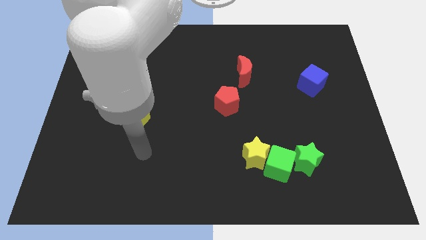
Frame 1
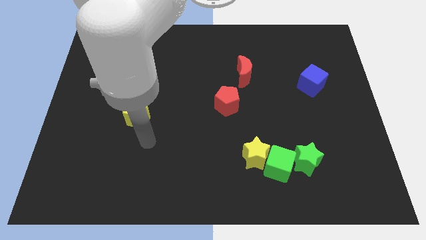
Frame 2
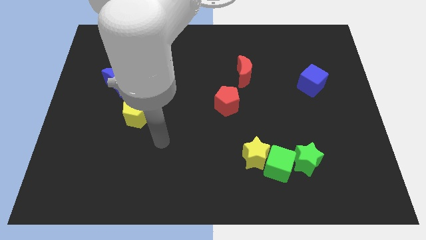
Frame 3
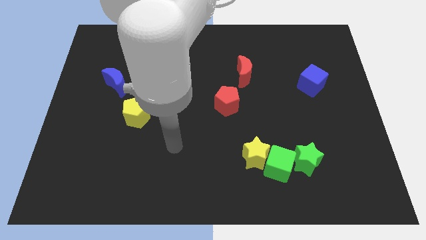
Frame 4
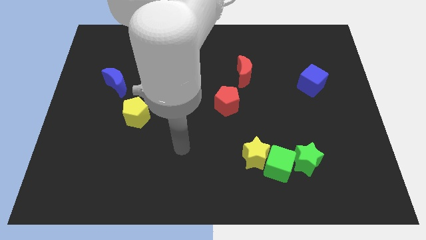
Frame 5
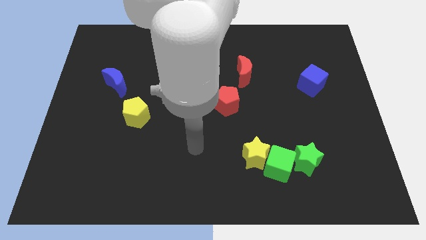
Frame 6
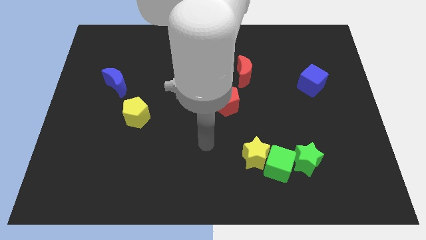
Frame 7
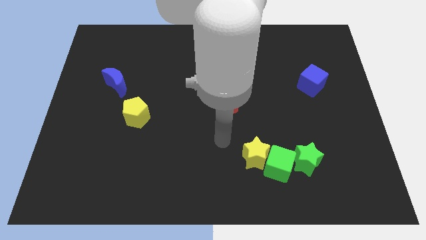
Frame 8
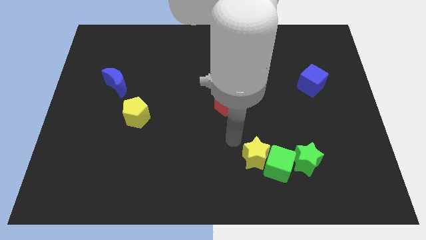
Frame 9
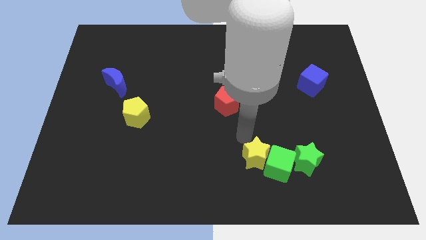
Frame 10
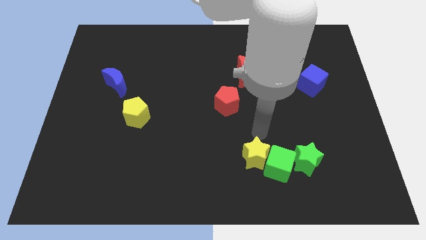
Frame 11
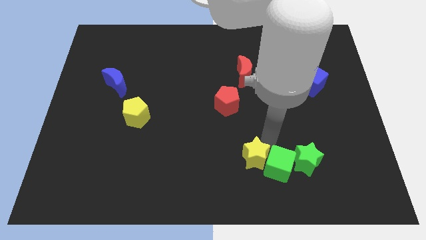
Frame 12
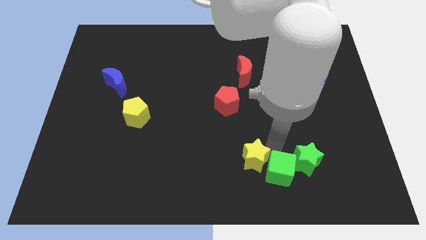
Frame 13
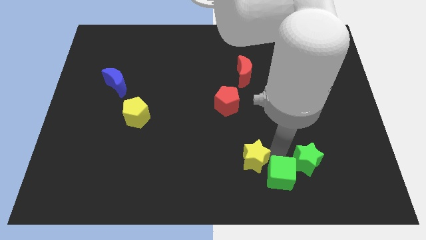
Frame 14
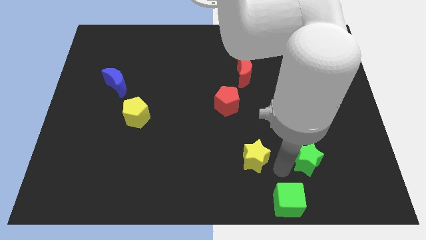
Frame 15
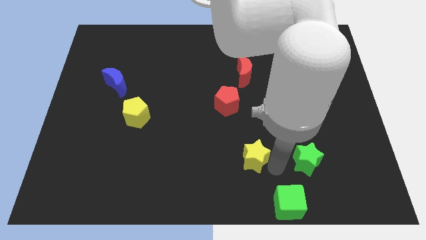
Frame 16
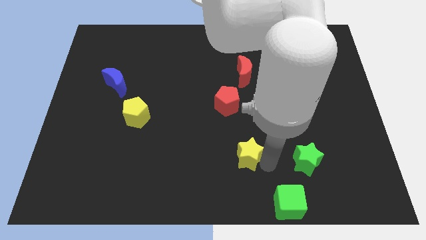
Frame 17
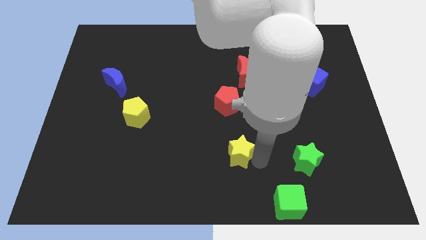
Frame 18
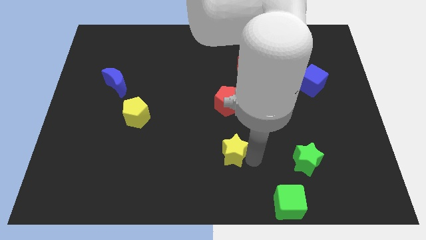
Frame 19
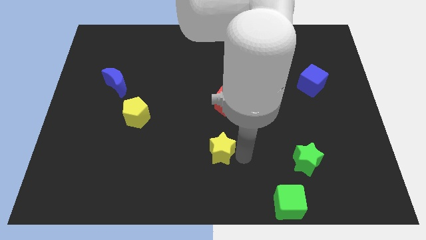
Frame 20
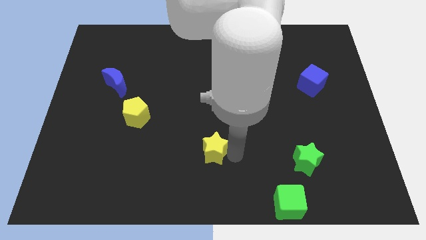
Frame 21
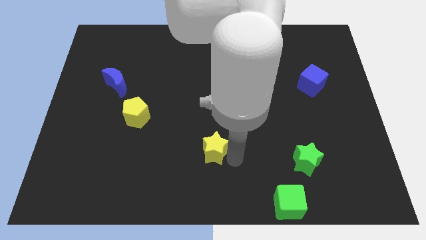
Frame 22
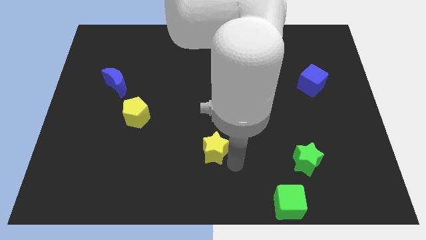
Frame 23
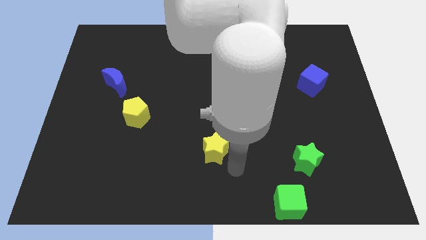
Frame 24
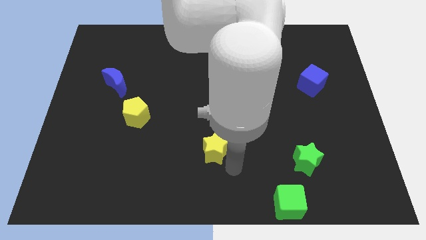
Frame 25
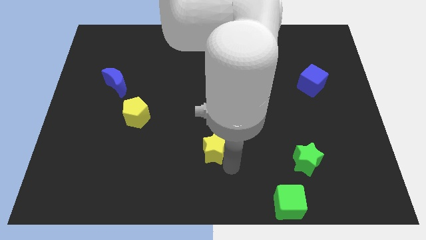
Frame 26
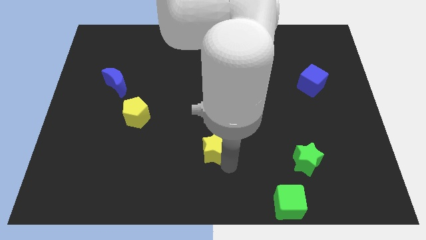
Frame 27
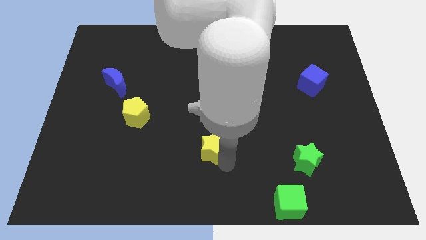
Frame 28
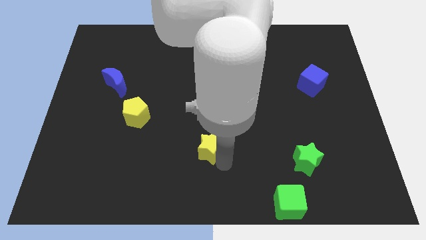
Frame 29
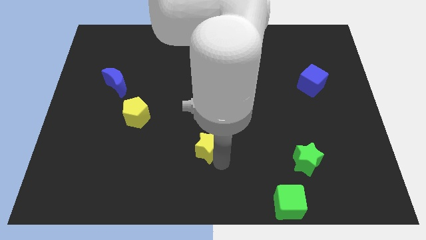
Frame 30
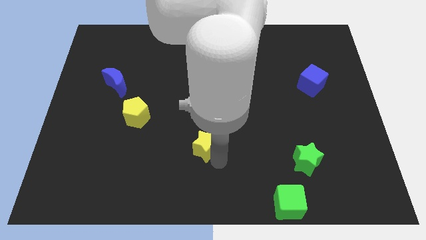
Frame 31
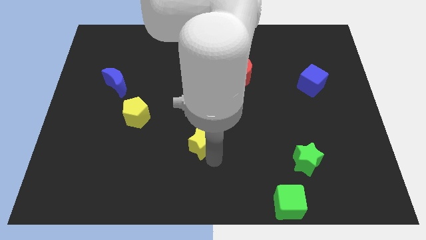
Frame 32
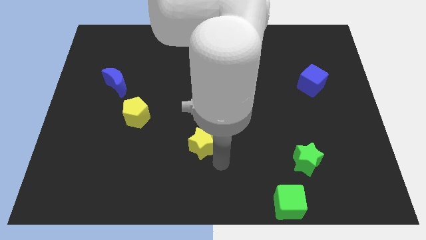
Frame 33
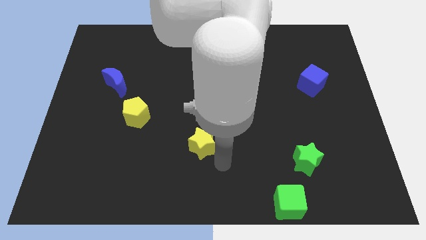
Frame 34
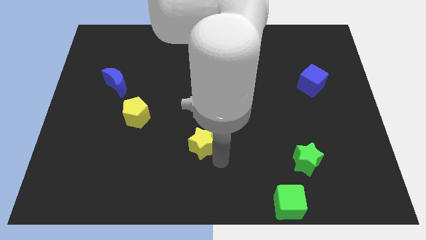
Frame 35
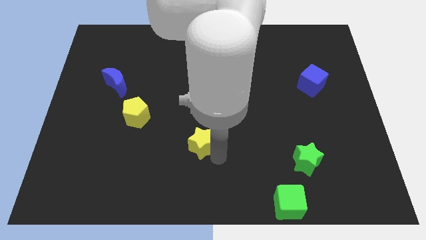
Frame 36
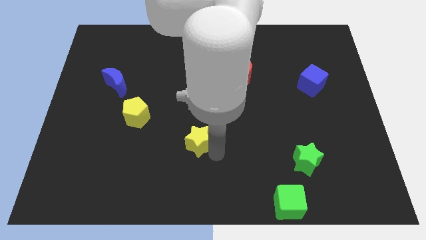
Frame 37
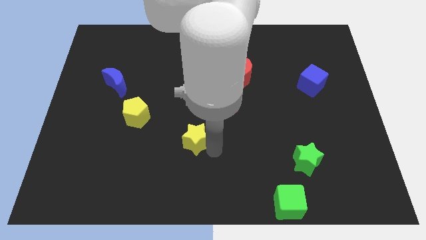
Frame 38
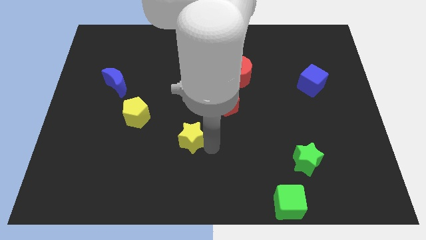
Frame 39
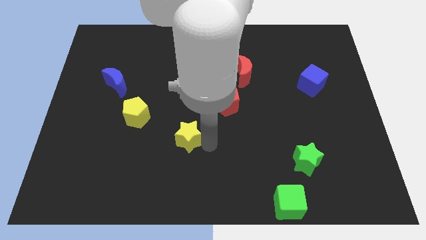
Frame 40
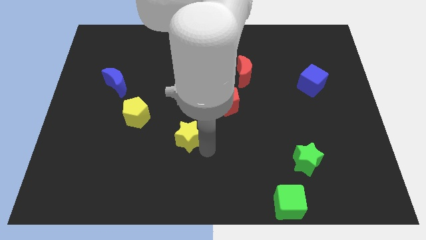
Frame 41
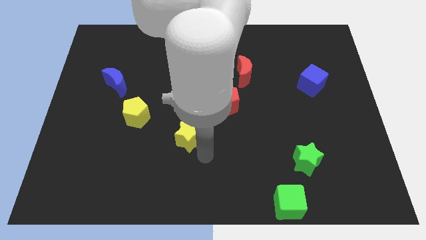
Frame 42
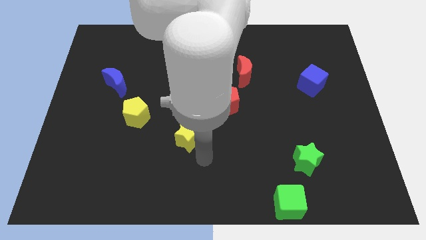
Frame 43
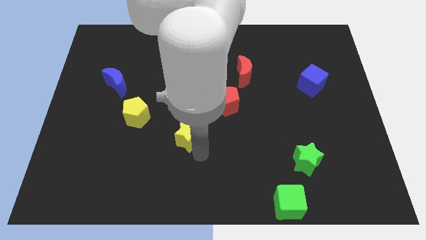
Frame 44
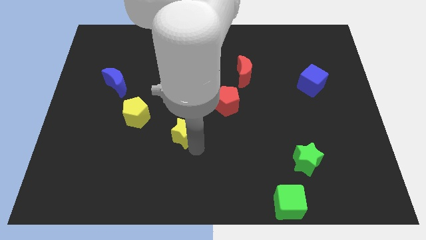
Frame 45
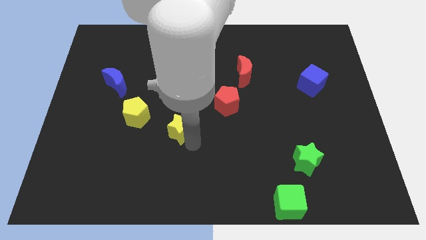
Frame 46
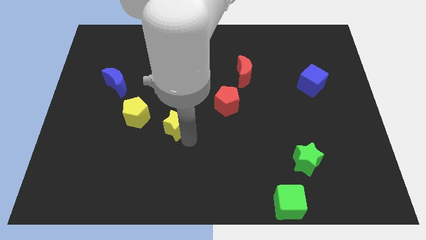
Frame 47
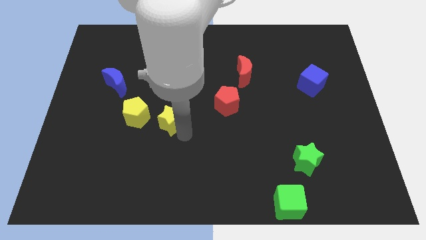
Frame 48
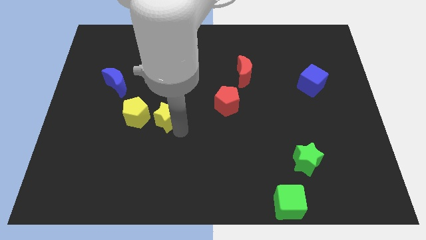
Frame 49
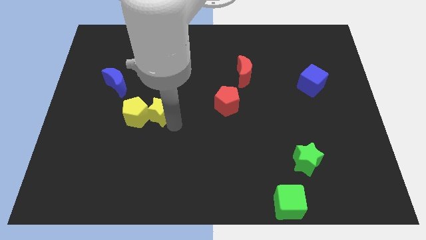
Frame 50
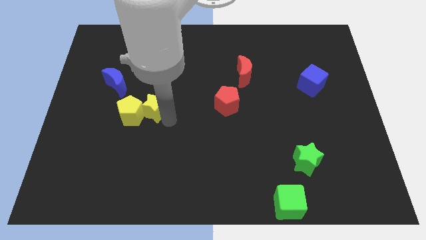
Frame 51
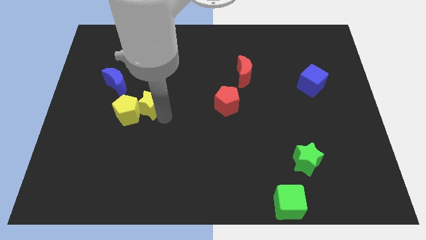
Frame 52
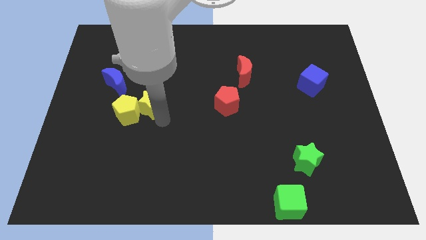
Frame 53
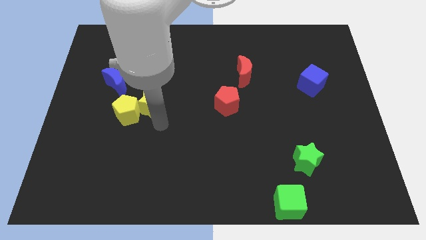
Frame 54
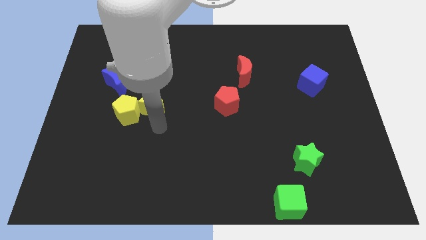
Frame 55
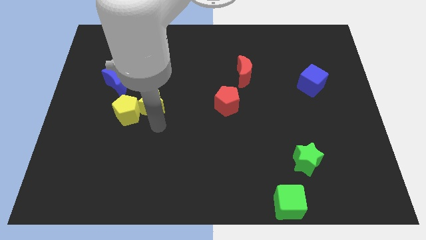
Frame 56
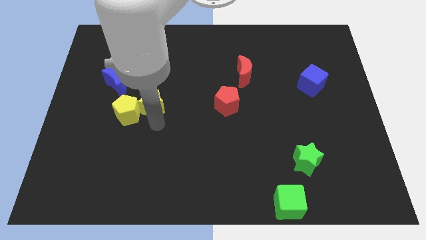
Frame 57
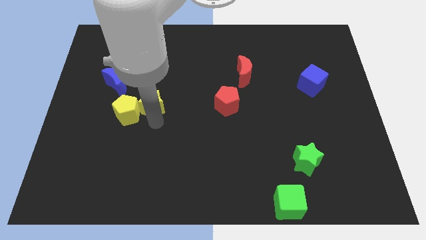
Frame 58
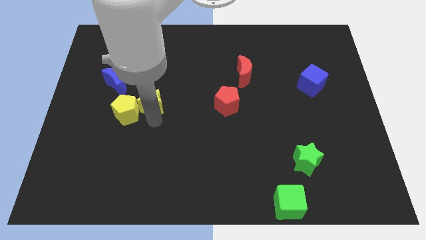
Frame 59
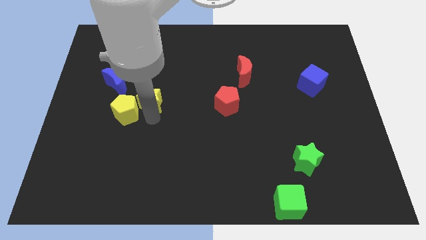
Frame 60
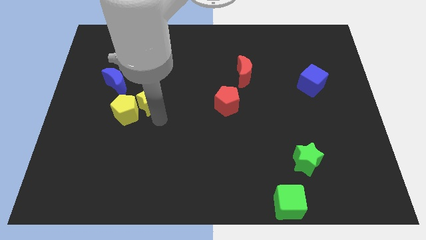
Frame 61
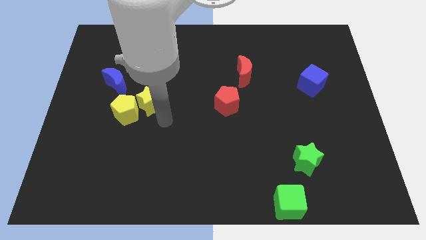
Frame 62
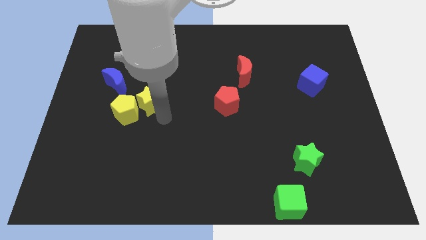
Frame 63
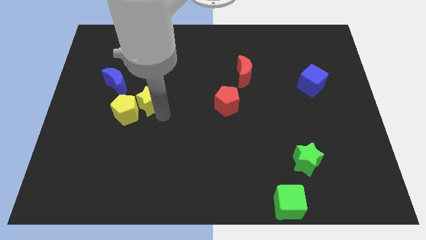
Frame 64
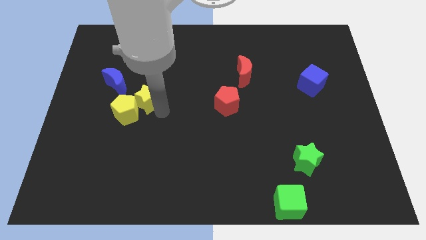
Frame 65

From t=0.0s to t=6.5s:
put the yellow star above the yellow pentagon
